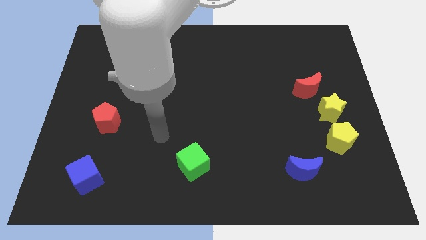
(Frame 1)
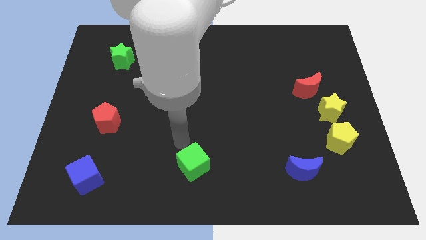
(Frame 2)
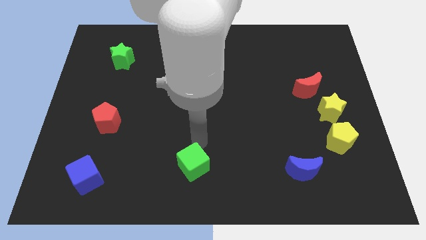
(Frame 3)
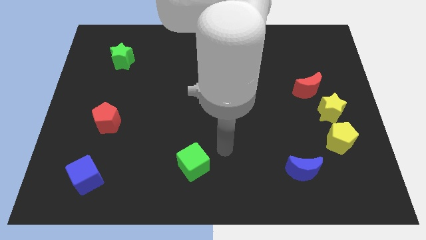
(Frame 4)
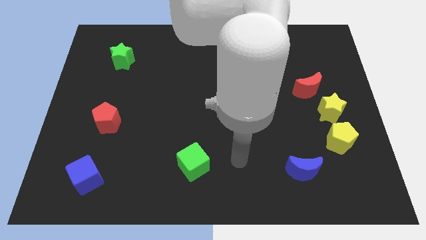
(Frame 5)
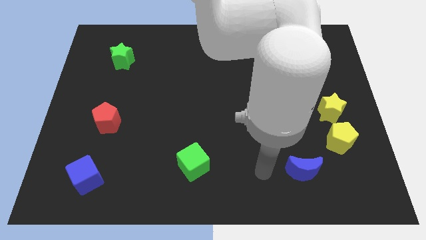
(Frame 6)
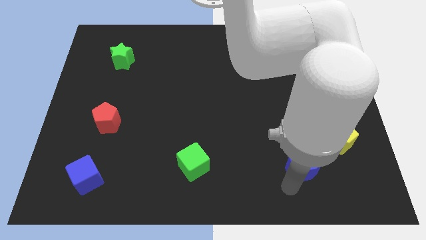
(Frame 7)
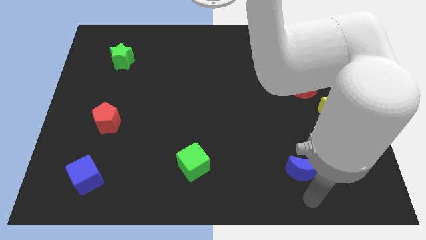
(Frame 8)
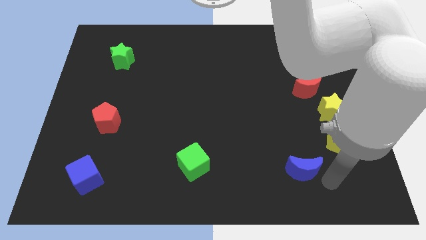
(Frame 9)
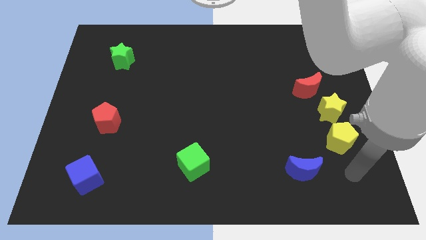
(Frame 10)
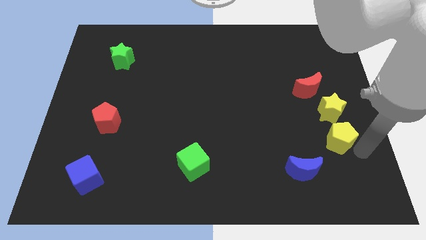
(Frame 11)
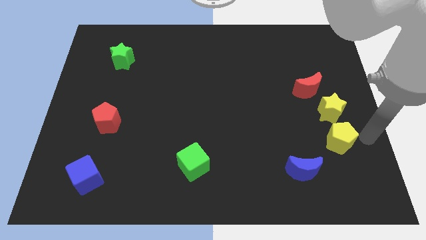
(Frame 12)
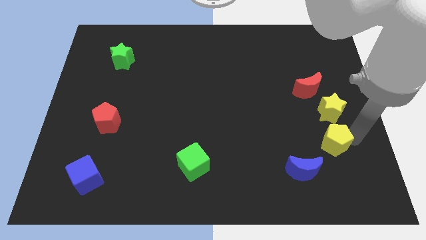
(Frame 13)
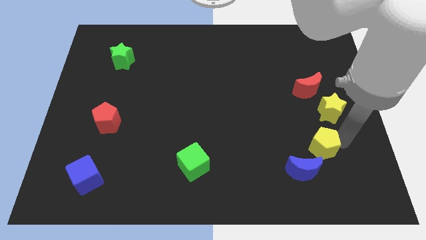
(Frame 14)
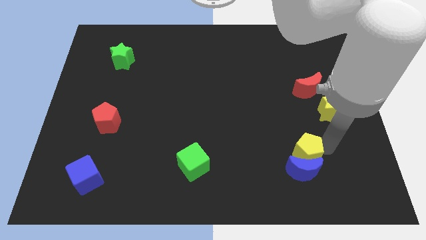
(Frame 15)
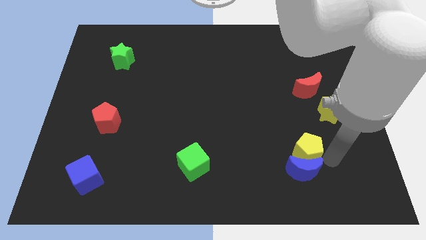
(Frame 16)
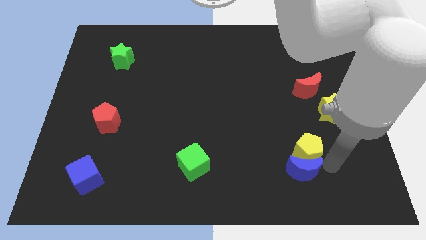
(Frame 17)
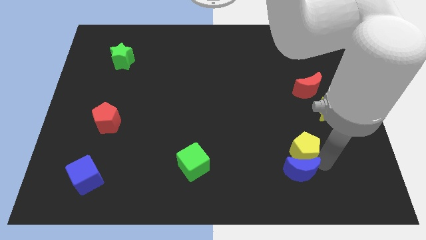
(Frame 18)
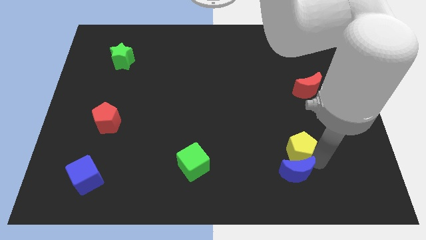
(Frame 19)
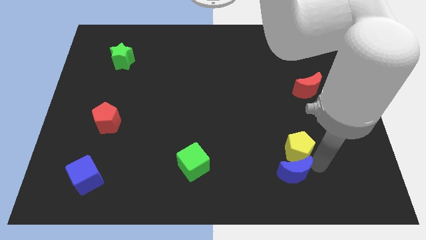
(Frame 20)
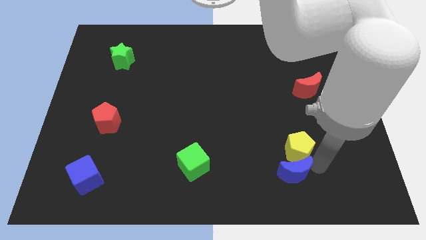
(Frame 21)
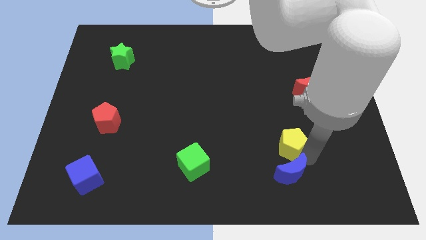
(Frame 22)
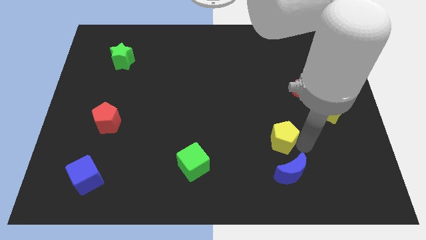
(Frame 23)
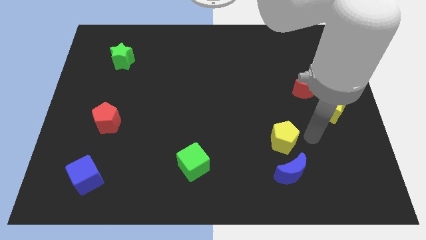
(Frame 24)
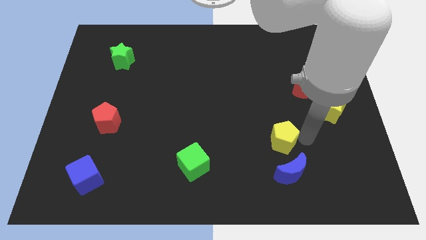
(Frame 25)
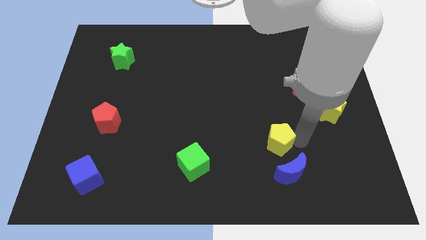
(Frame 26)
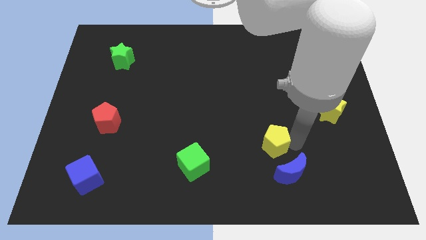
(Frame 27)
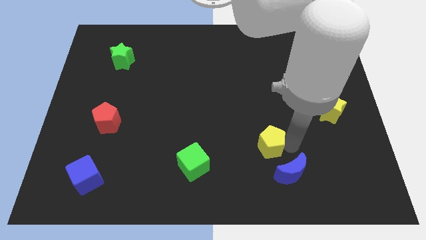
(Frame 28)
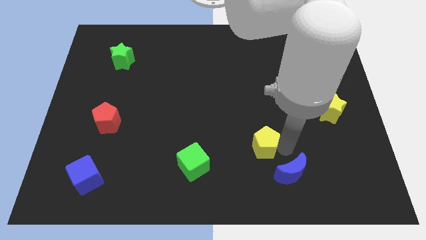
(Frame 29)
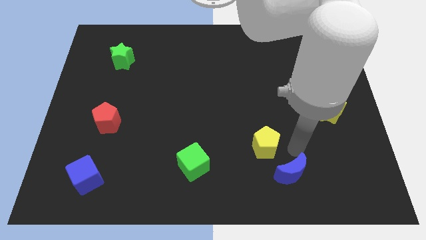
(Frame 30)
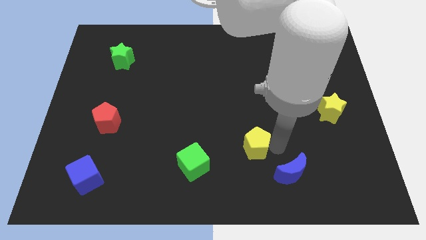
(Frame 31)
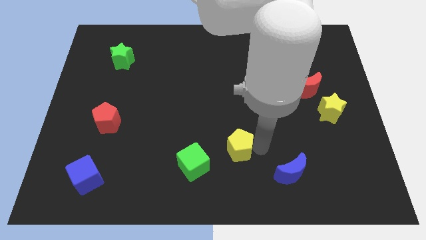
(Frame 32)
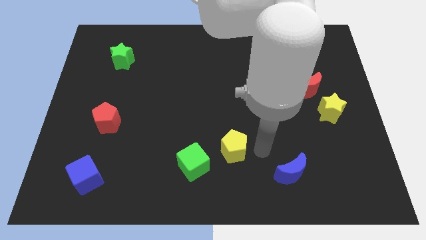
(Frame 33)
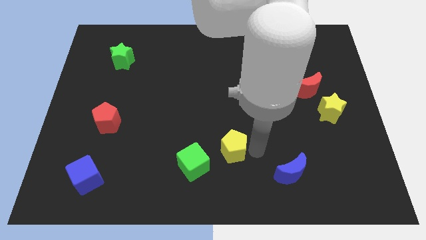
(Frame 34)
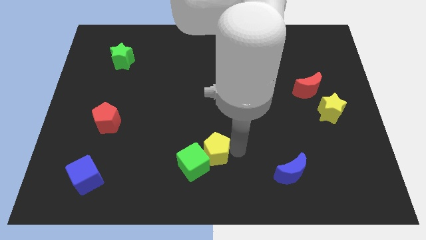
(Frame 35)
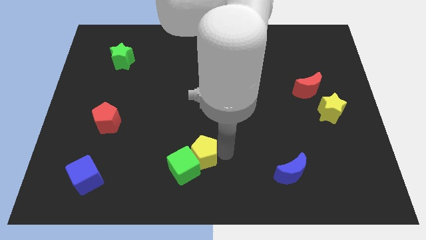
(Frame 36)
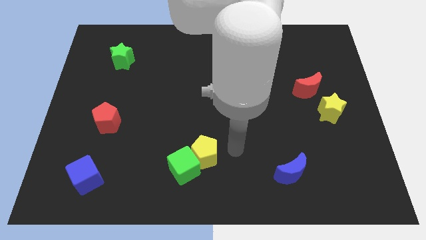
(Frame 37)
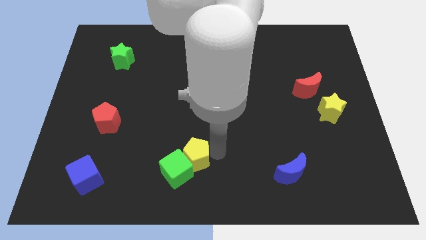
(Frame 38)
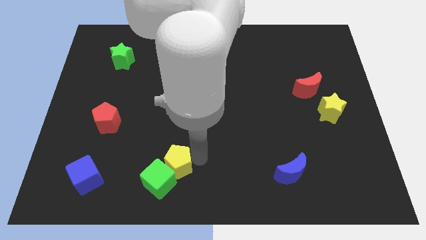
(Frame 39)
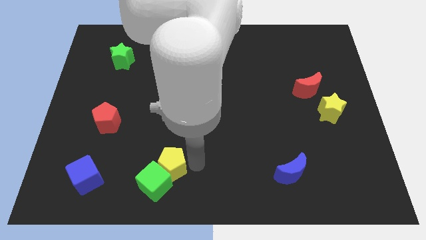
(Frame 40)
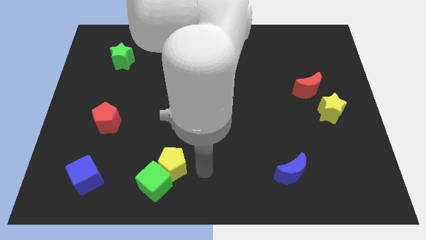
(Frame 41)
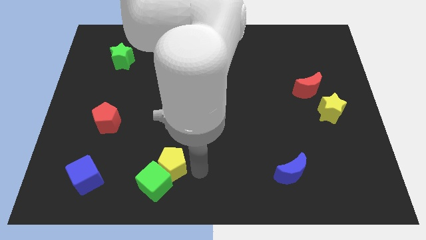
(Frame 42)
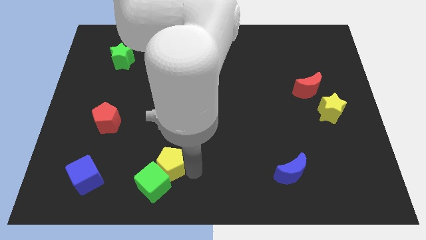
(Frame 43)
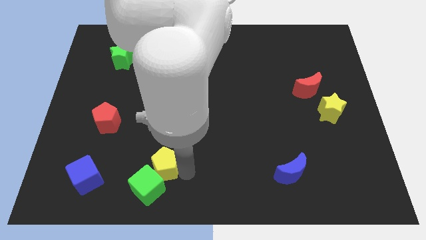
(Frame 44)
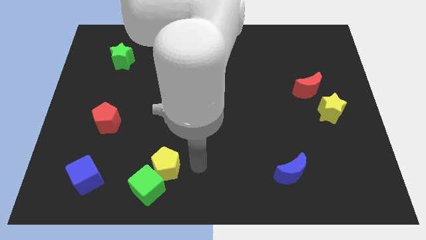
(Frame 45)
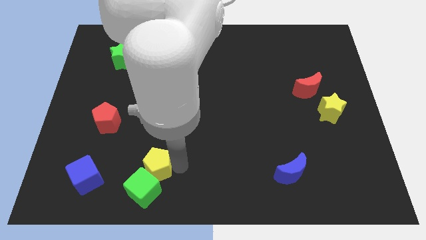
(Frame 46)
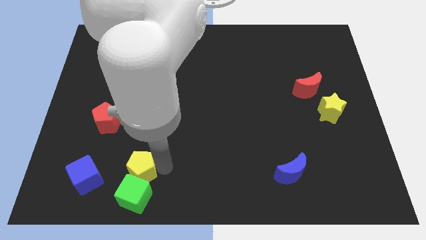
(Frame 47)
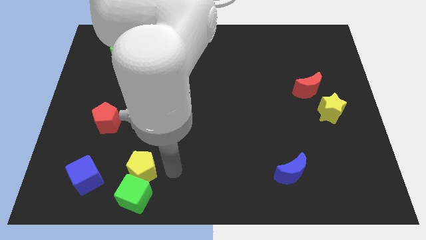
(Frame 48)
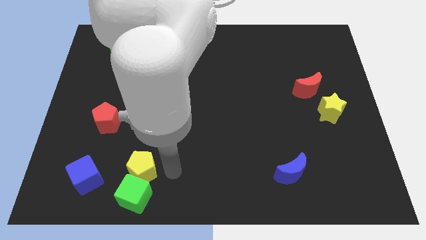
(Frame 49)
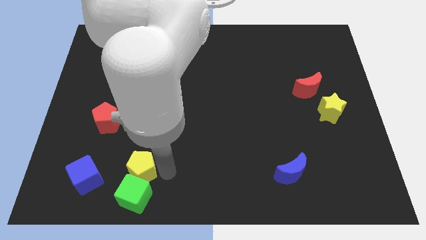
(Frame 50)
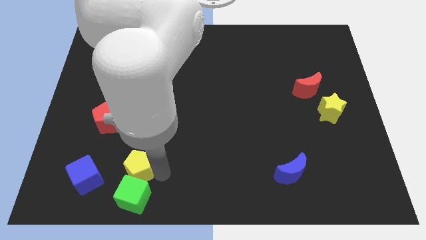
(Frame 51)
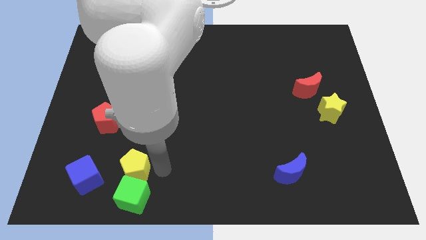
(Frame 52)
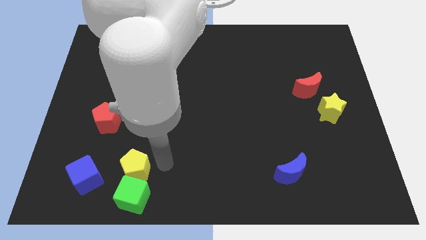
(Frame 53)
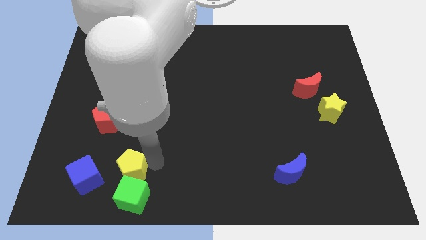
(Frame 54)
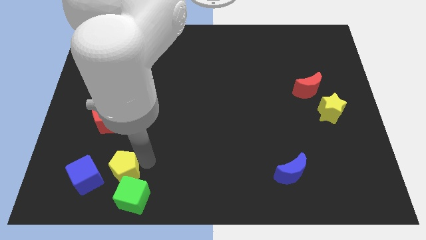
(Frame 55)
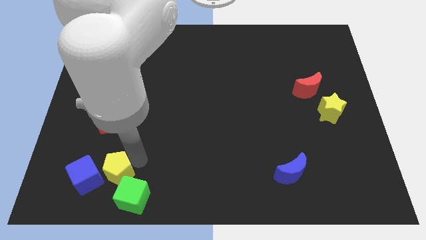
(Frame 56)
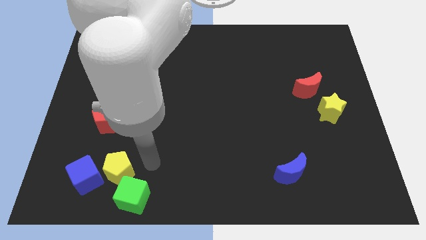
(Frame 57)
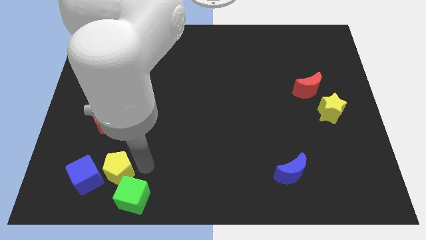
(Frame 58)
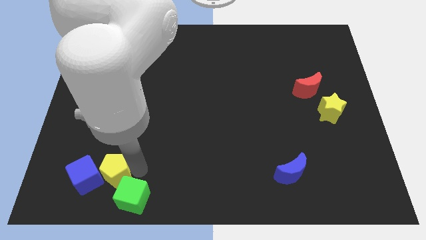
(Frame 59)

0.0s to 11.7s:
put the yellow pentagon next to the blue cube

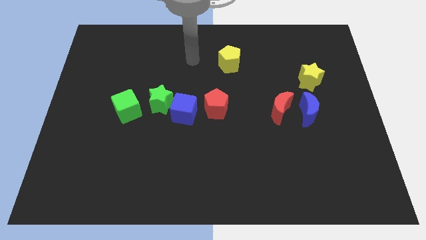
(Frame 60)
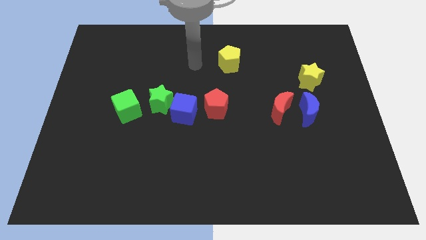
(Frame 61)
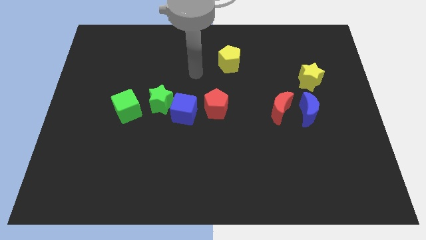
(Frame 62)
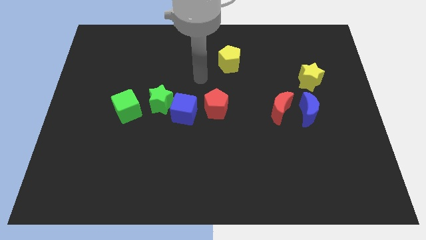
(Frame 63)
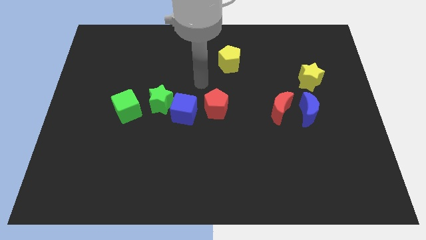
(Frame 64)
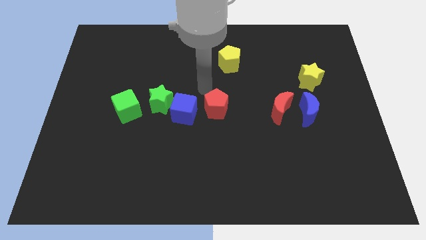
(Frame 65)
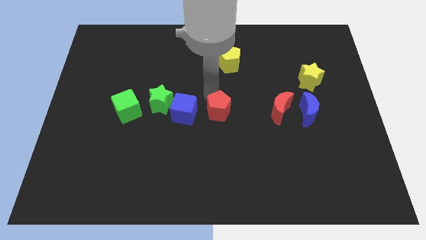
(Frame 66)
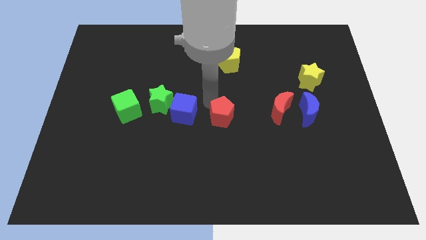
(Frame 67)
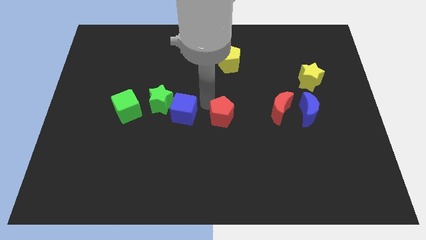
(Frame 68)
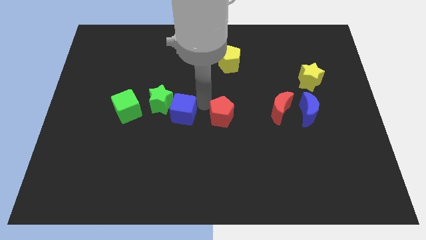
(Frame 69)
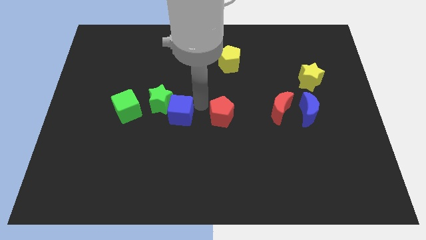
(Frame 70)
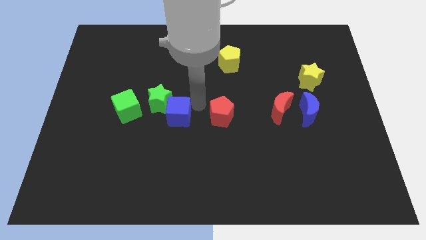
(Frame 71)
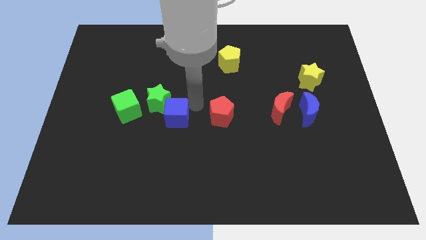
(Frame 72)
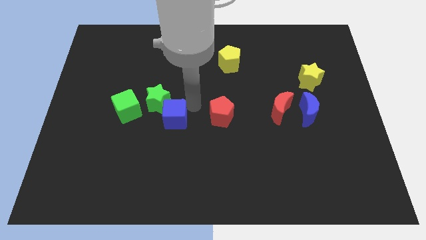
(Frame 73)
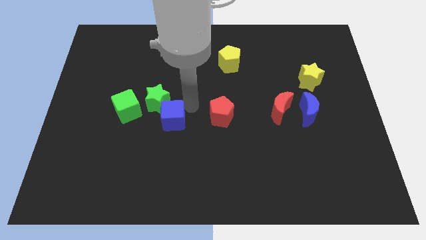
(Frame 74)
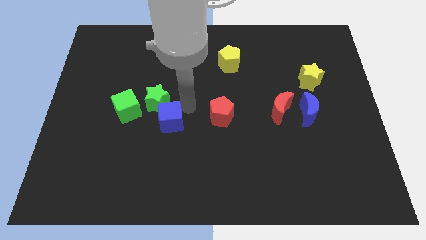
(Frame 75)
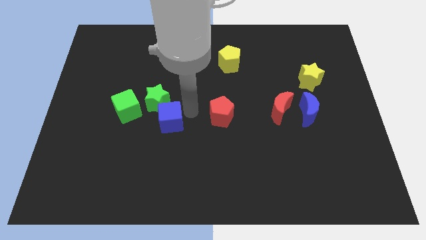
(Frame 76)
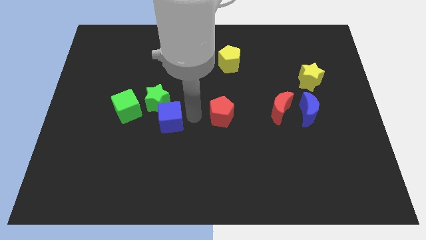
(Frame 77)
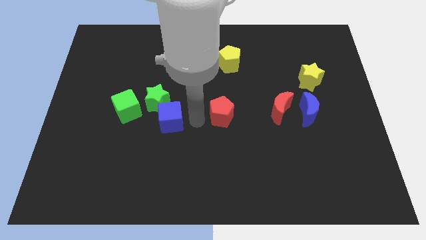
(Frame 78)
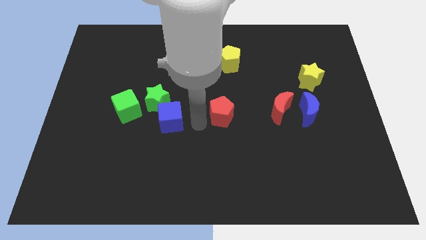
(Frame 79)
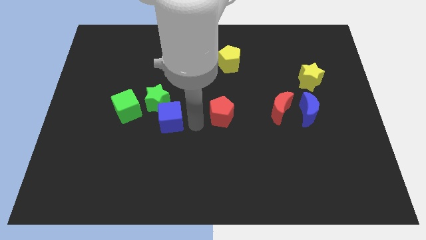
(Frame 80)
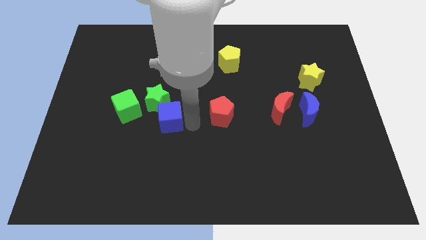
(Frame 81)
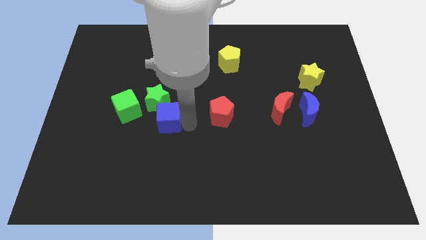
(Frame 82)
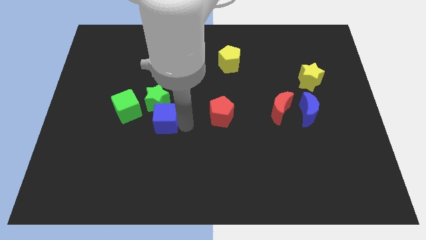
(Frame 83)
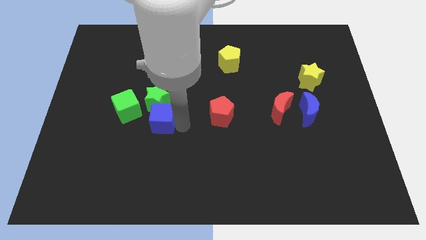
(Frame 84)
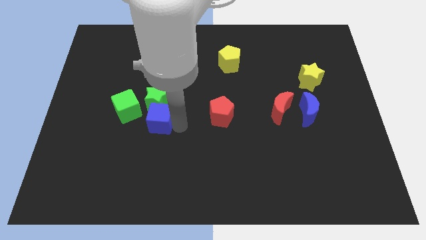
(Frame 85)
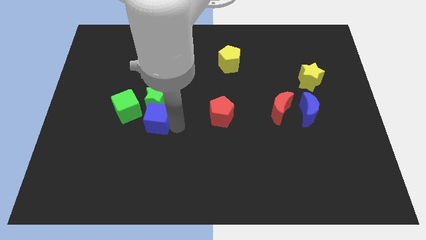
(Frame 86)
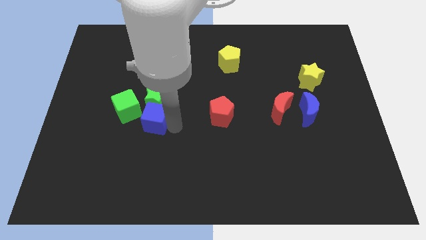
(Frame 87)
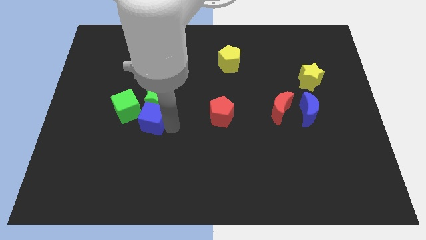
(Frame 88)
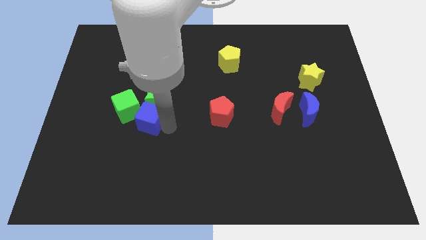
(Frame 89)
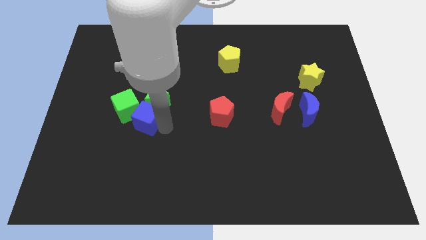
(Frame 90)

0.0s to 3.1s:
move the blue cube close to the green cube
